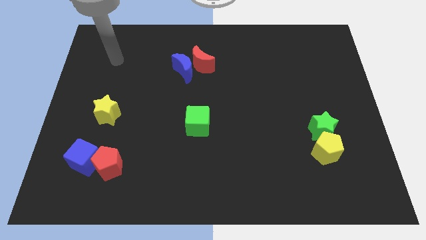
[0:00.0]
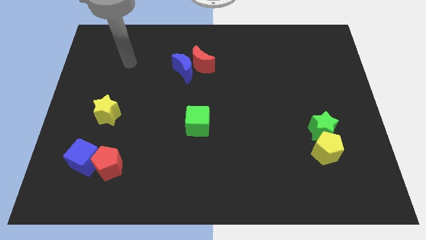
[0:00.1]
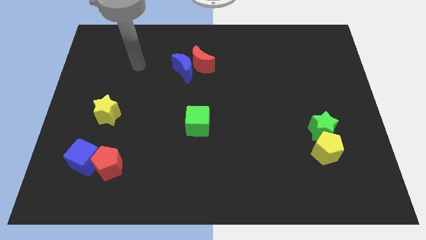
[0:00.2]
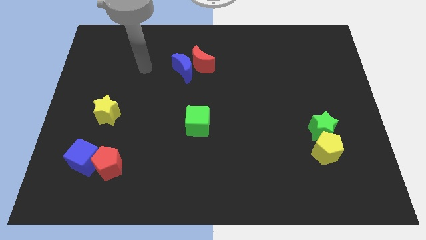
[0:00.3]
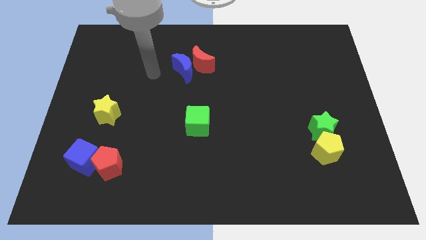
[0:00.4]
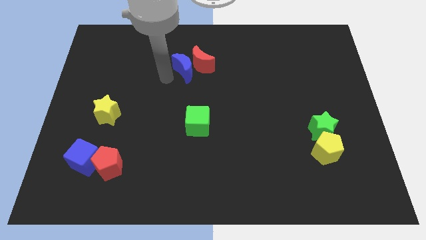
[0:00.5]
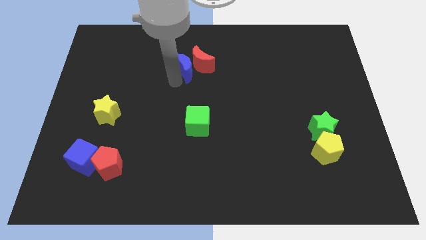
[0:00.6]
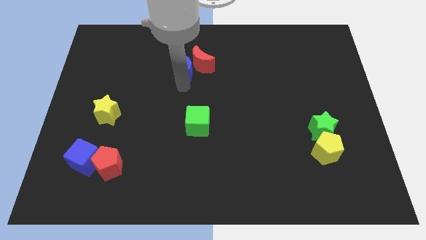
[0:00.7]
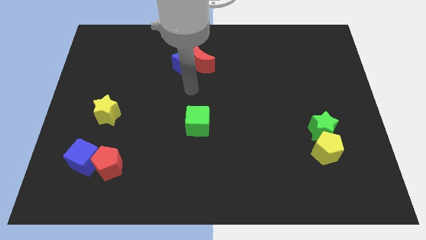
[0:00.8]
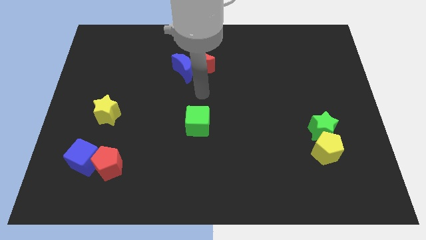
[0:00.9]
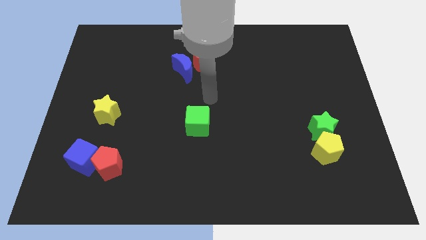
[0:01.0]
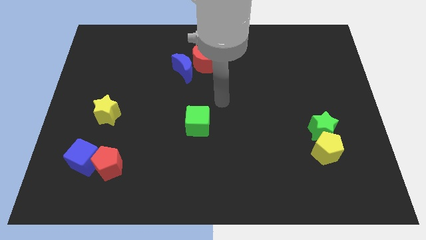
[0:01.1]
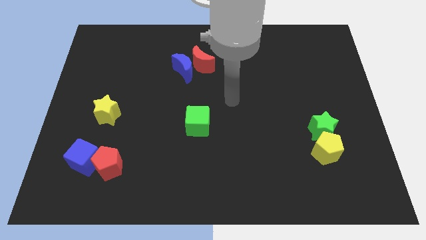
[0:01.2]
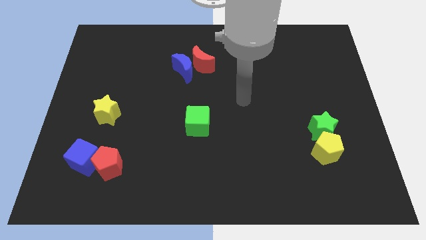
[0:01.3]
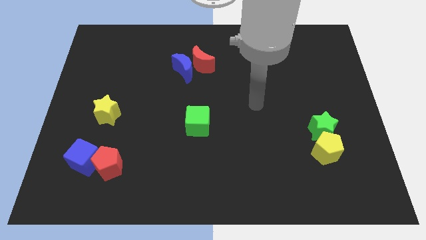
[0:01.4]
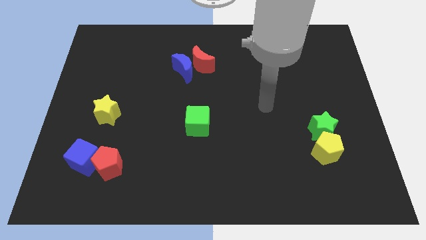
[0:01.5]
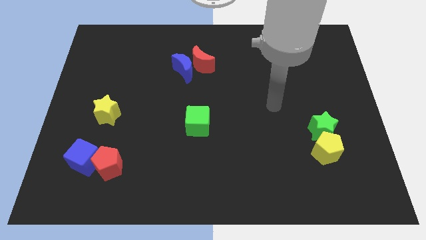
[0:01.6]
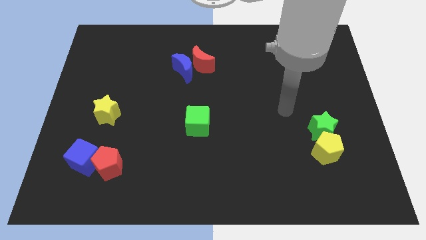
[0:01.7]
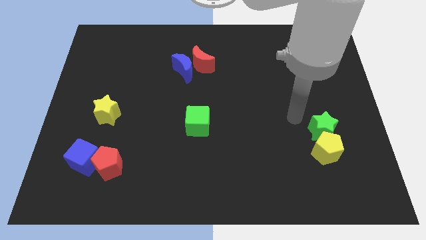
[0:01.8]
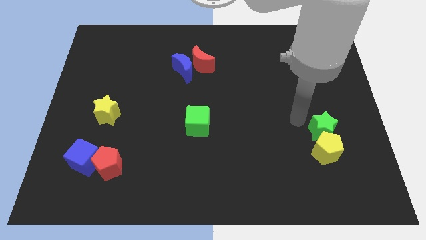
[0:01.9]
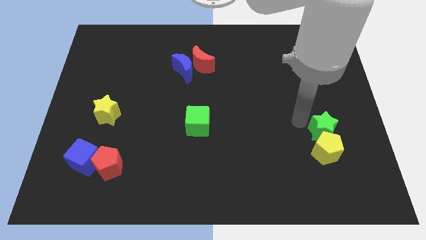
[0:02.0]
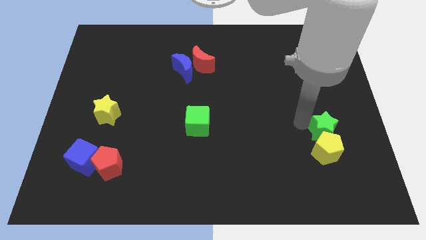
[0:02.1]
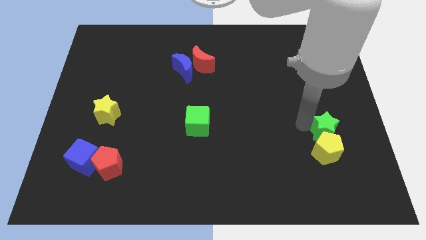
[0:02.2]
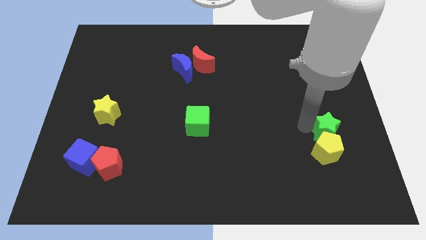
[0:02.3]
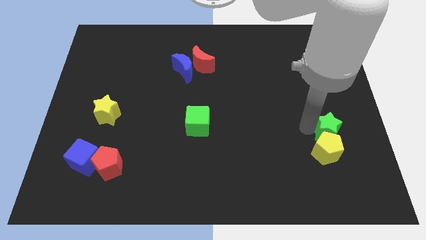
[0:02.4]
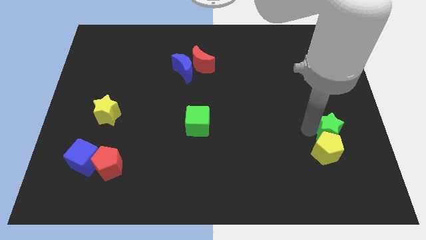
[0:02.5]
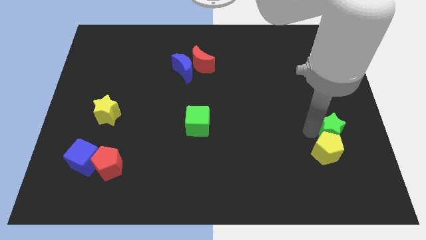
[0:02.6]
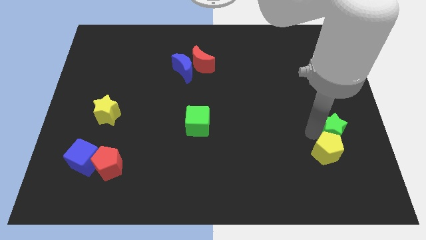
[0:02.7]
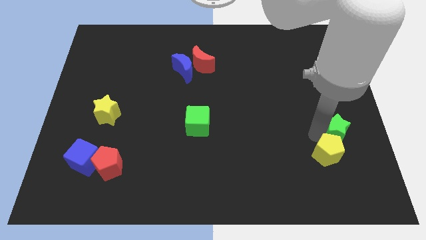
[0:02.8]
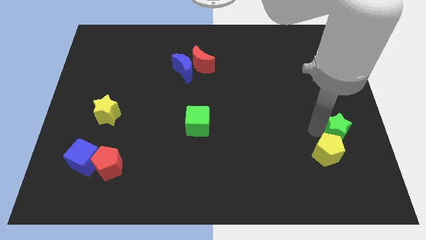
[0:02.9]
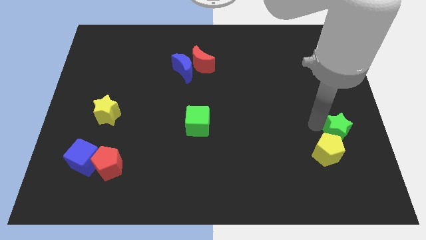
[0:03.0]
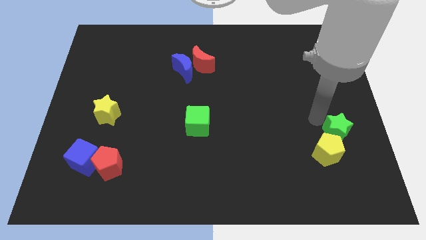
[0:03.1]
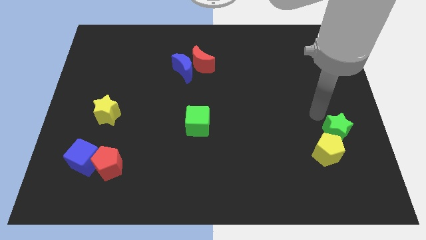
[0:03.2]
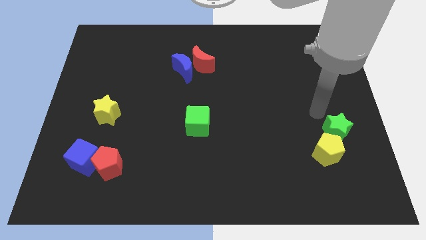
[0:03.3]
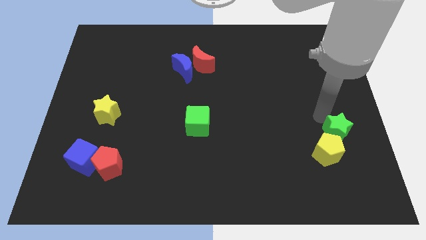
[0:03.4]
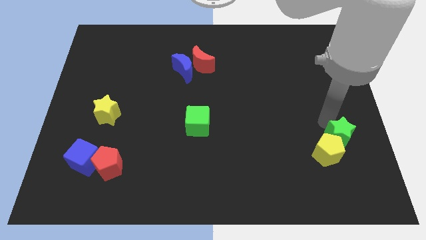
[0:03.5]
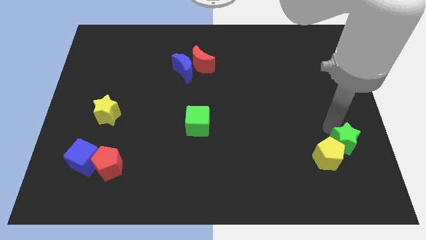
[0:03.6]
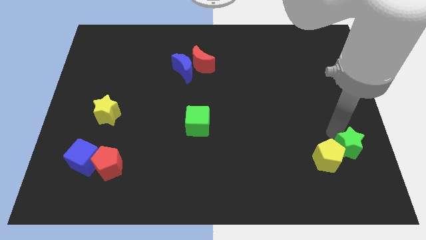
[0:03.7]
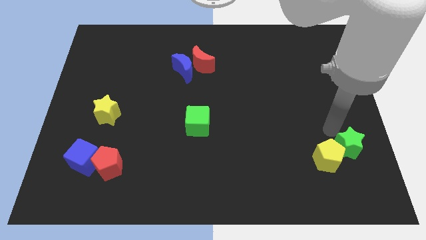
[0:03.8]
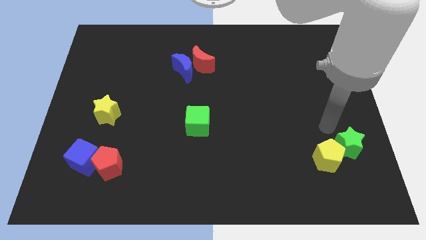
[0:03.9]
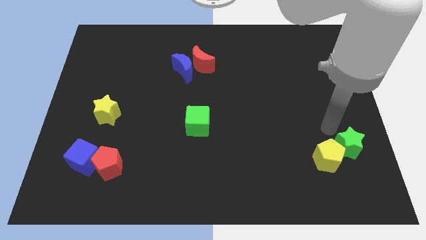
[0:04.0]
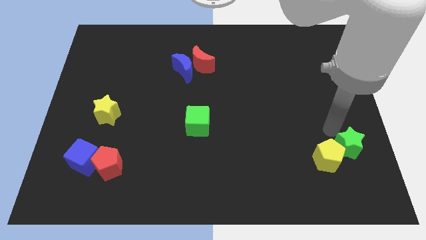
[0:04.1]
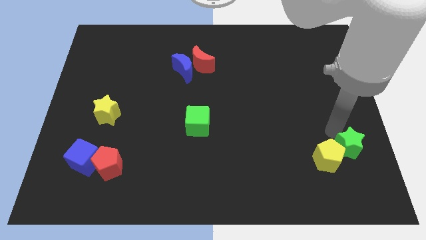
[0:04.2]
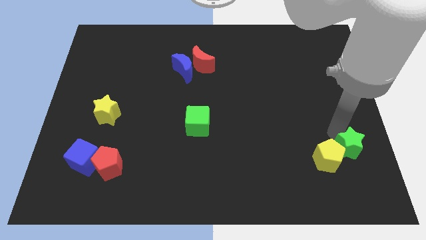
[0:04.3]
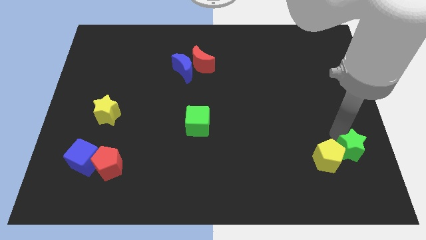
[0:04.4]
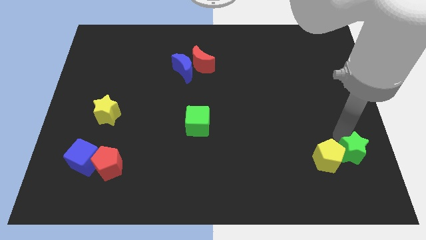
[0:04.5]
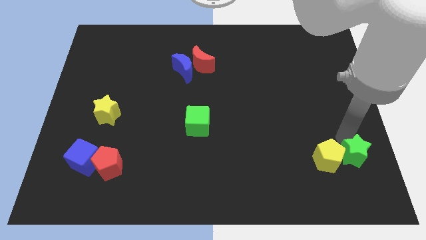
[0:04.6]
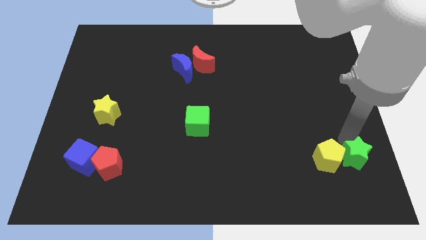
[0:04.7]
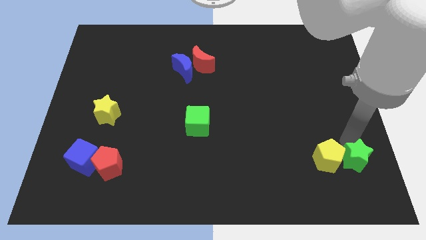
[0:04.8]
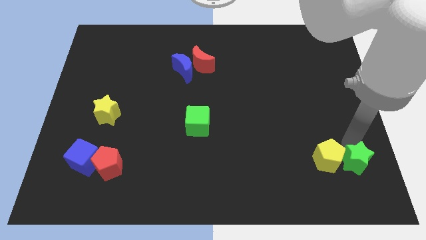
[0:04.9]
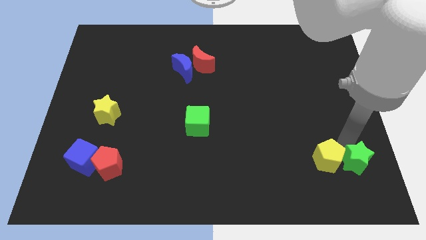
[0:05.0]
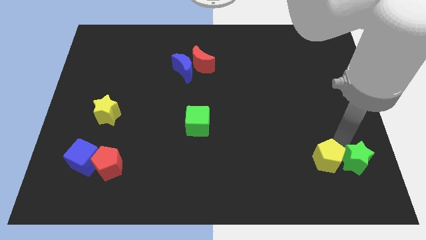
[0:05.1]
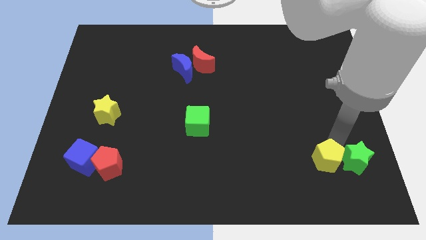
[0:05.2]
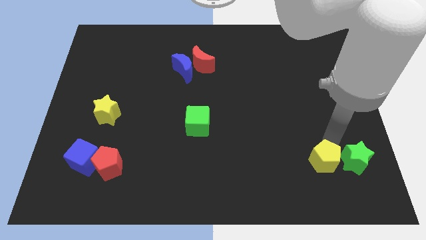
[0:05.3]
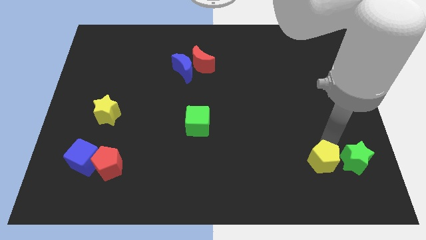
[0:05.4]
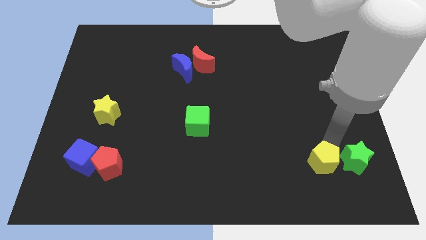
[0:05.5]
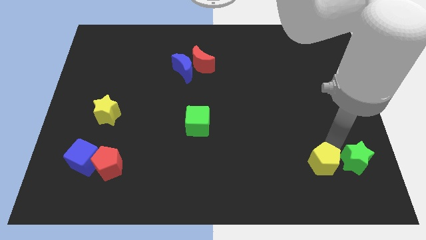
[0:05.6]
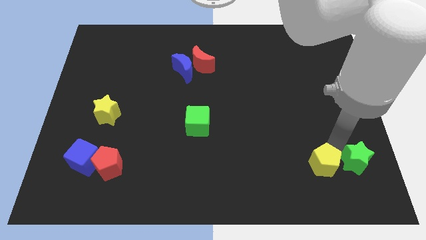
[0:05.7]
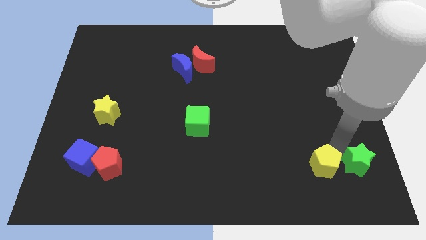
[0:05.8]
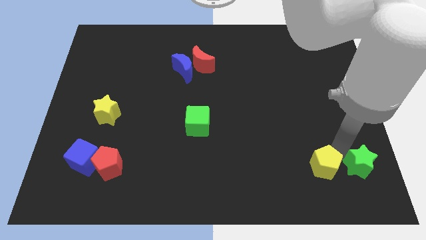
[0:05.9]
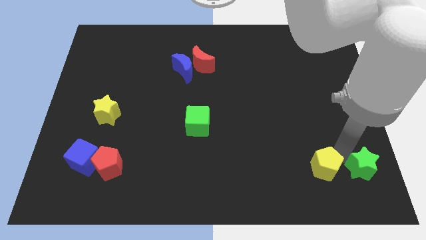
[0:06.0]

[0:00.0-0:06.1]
push the green star to the bottom right

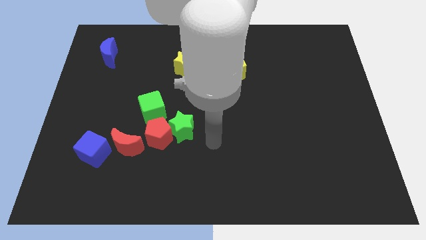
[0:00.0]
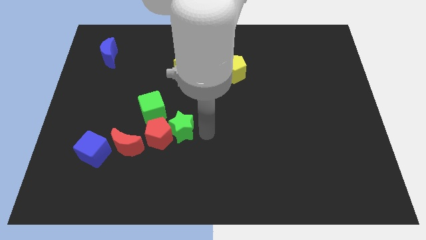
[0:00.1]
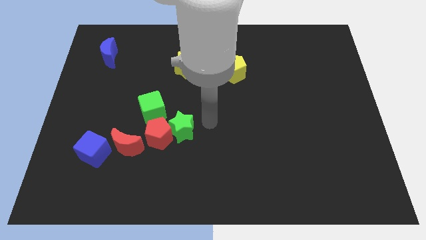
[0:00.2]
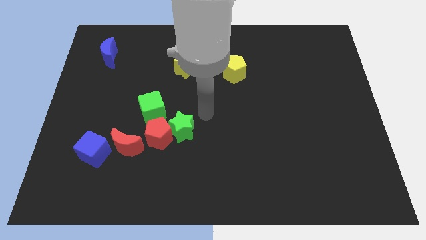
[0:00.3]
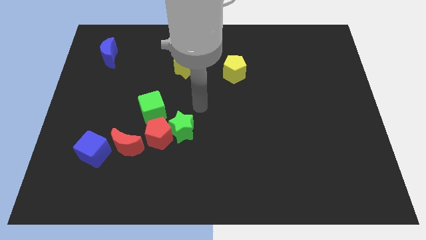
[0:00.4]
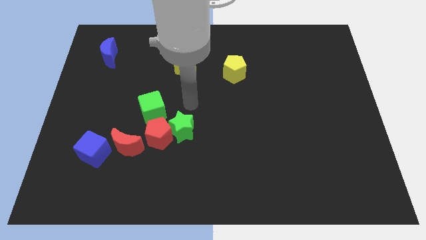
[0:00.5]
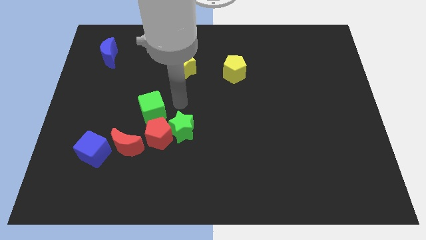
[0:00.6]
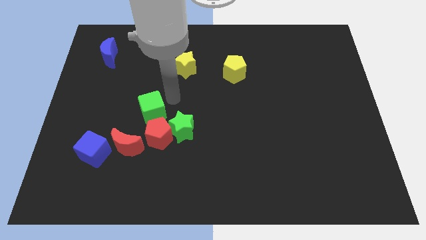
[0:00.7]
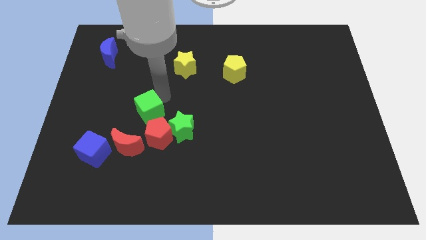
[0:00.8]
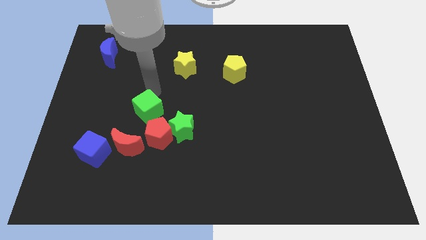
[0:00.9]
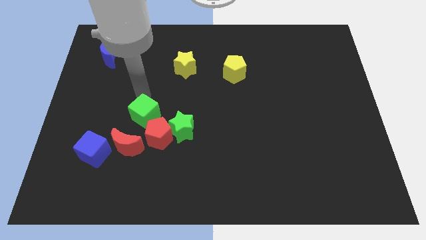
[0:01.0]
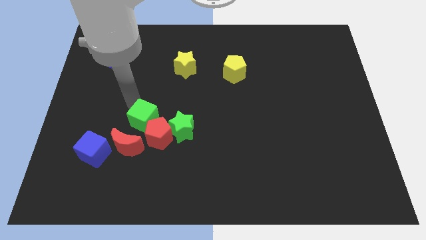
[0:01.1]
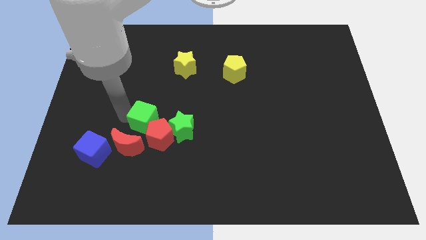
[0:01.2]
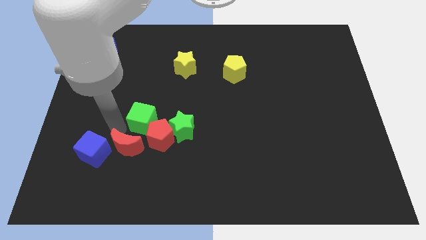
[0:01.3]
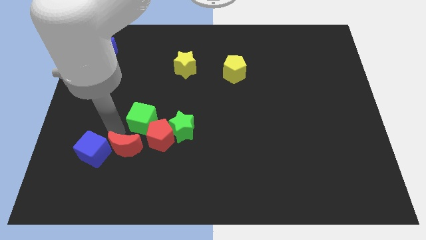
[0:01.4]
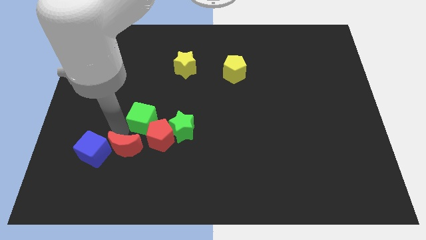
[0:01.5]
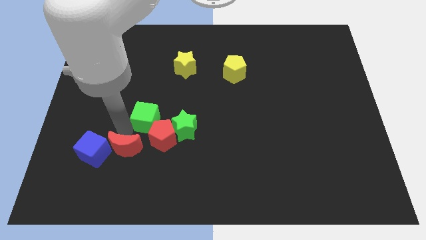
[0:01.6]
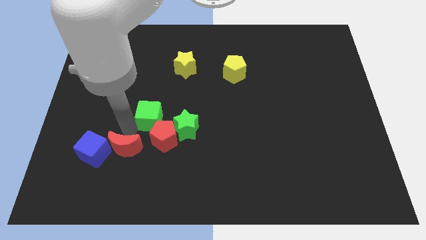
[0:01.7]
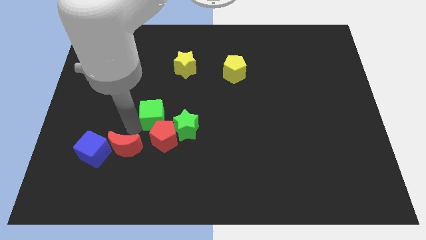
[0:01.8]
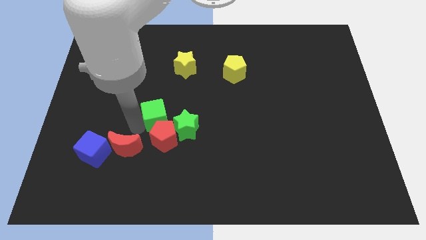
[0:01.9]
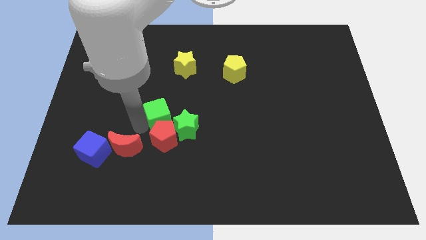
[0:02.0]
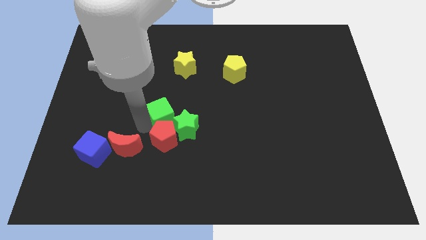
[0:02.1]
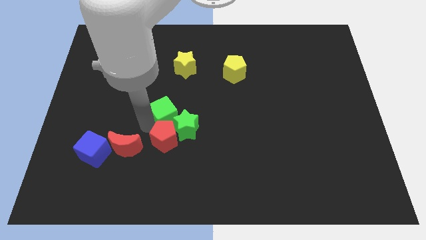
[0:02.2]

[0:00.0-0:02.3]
move the green cube to the center of the board
